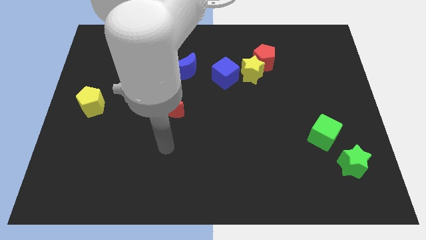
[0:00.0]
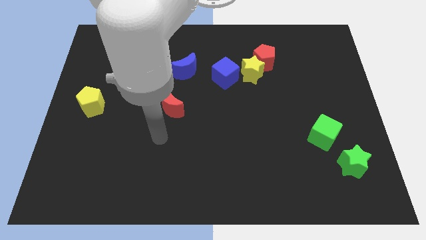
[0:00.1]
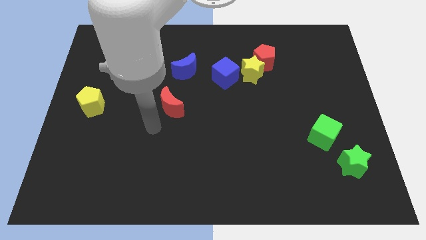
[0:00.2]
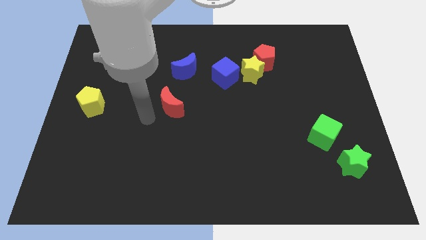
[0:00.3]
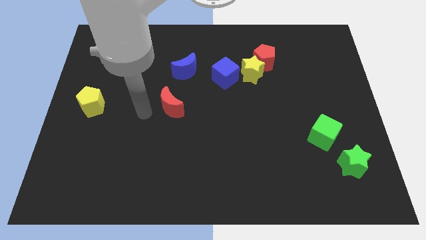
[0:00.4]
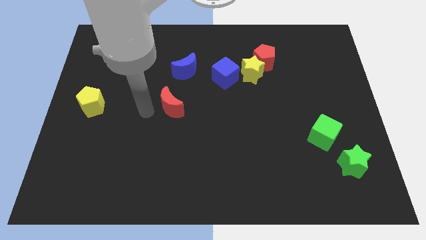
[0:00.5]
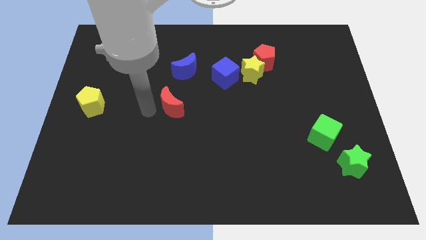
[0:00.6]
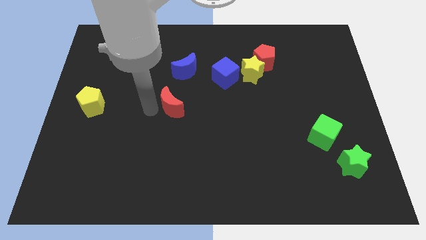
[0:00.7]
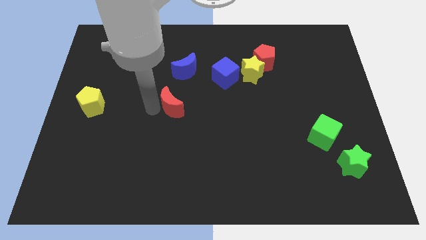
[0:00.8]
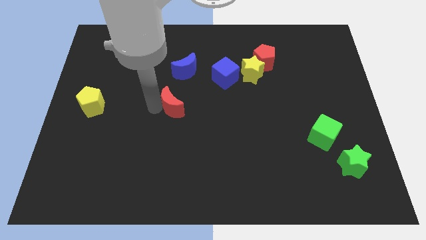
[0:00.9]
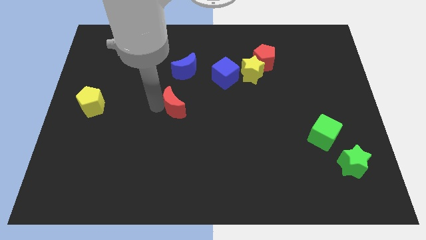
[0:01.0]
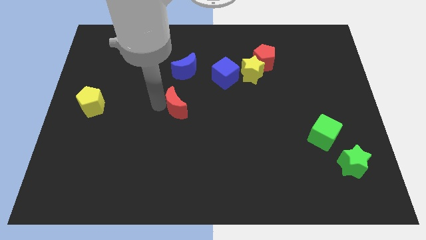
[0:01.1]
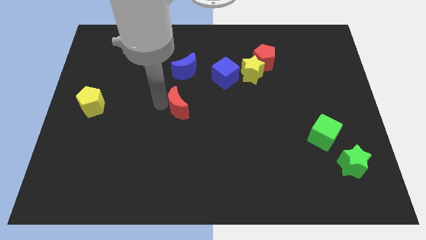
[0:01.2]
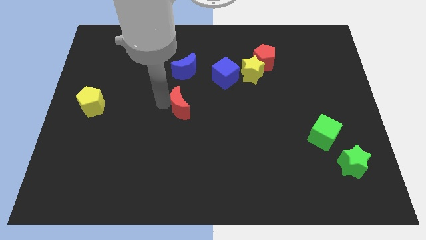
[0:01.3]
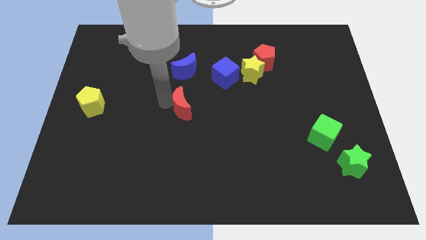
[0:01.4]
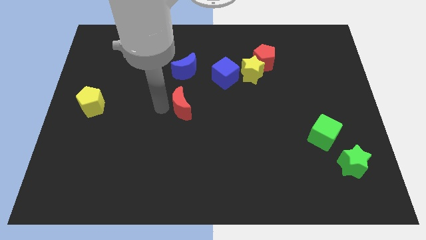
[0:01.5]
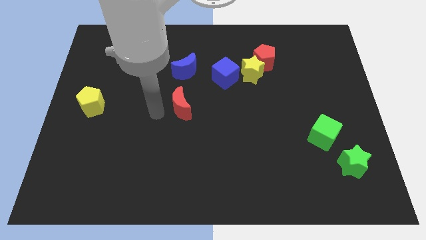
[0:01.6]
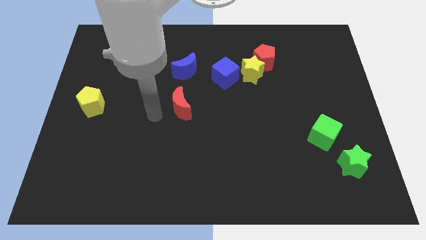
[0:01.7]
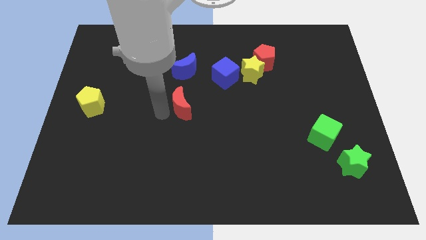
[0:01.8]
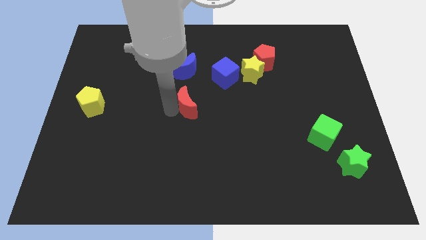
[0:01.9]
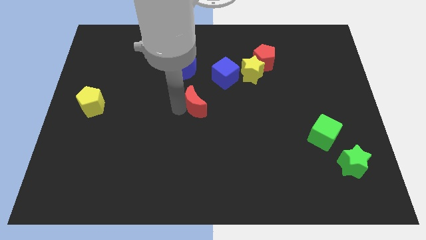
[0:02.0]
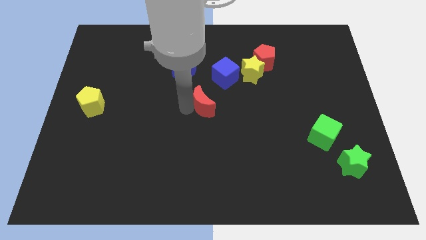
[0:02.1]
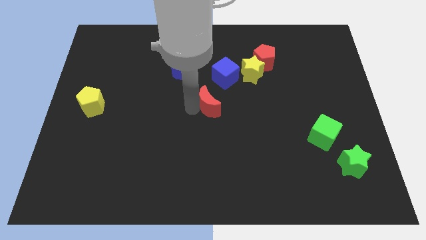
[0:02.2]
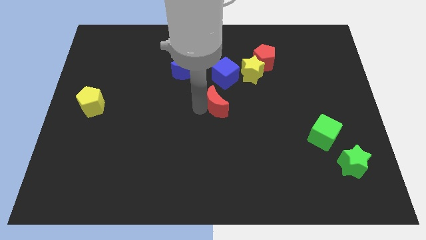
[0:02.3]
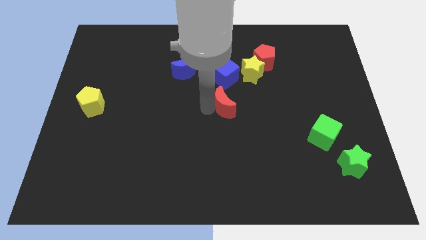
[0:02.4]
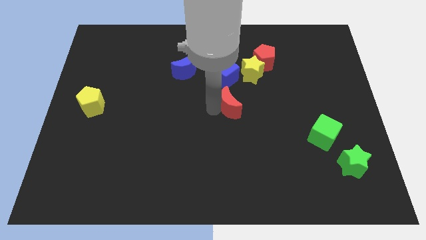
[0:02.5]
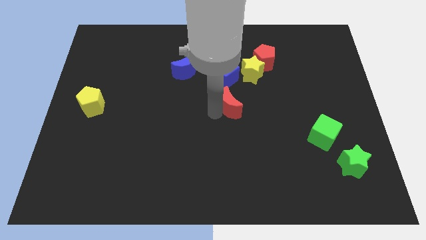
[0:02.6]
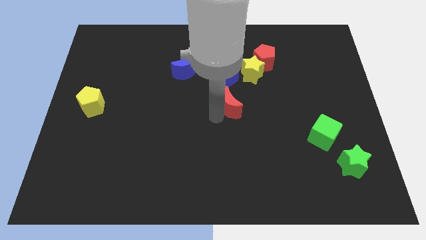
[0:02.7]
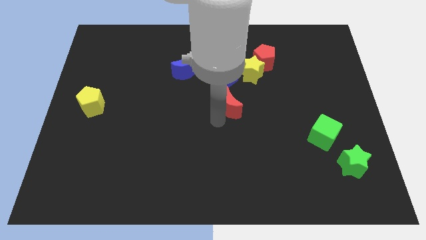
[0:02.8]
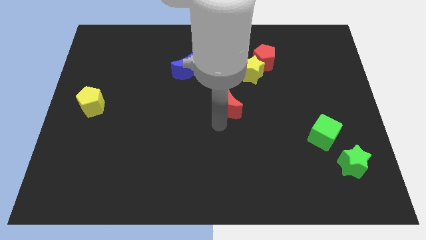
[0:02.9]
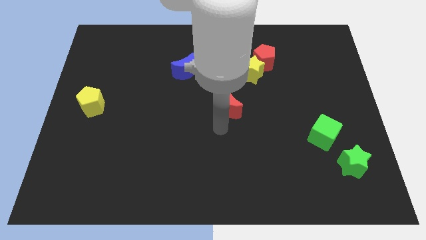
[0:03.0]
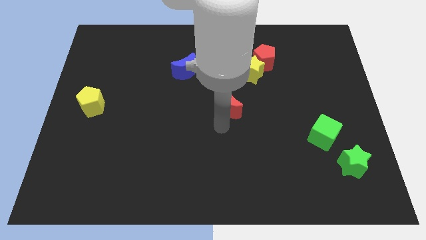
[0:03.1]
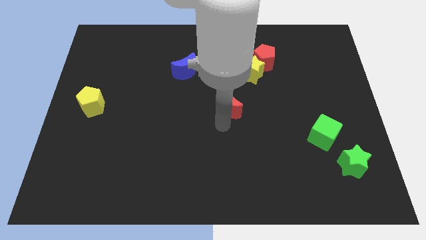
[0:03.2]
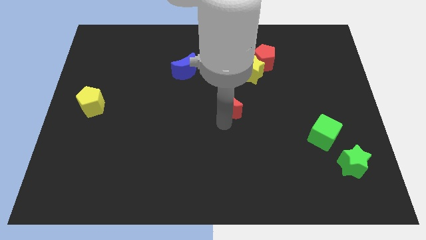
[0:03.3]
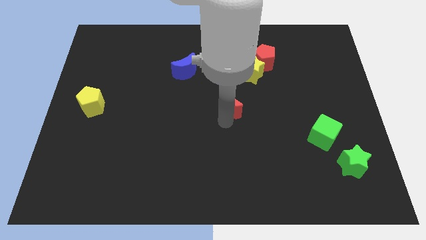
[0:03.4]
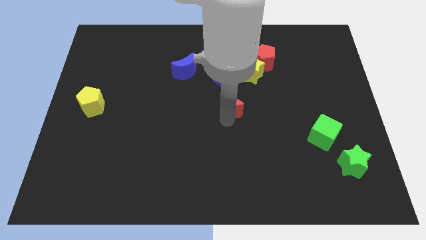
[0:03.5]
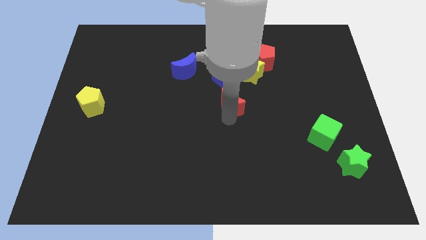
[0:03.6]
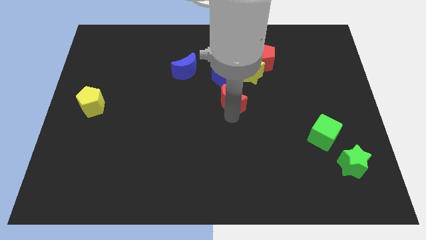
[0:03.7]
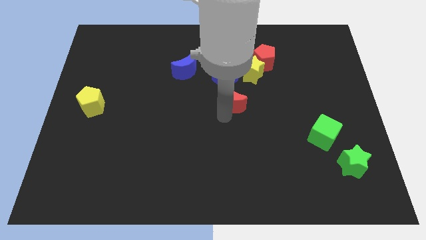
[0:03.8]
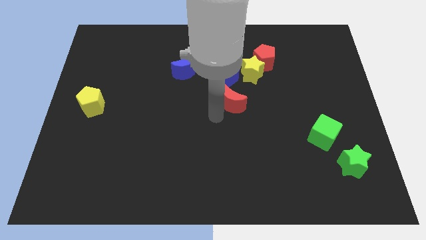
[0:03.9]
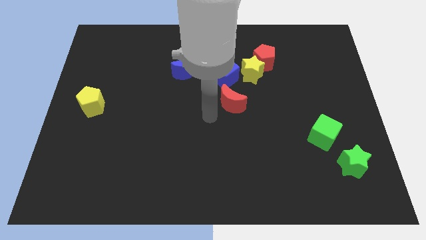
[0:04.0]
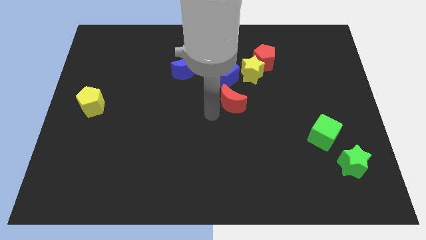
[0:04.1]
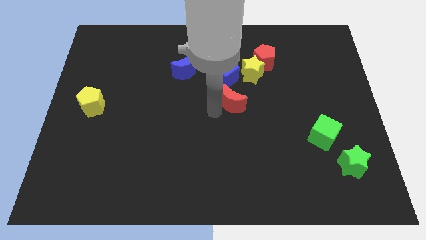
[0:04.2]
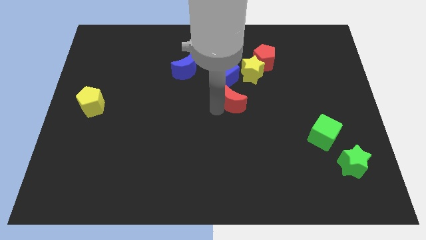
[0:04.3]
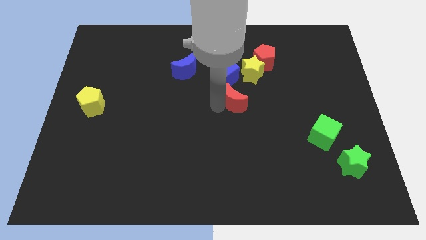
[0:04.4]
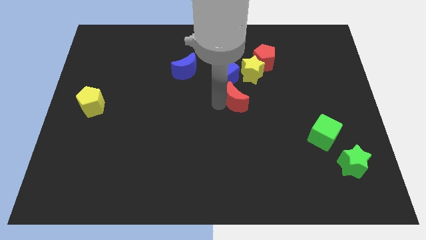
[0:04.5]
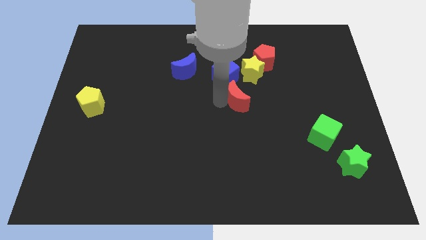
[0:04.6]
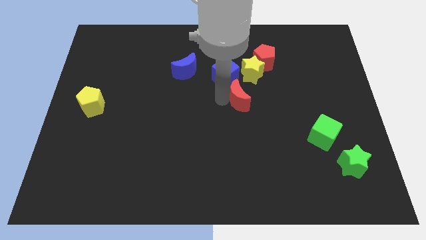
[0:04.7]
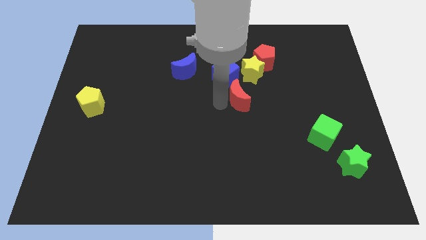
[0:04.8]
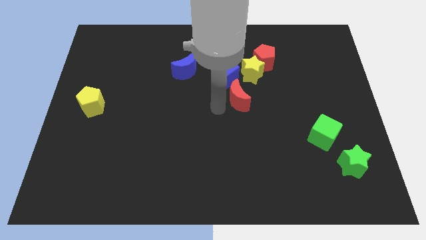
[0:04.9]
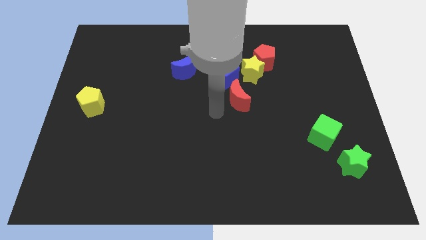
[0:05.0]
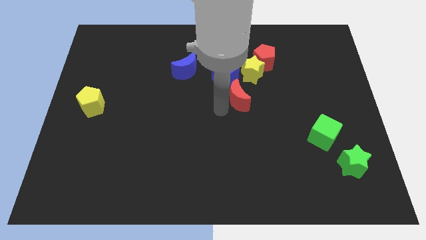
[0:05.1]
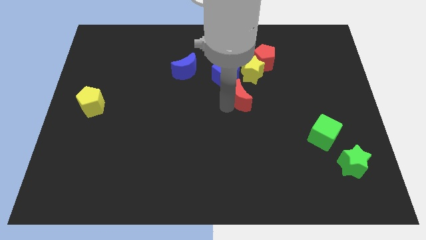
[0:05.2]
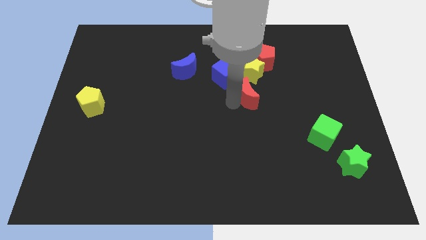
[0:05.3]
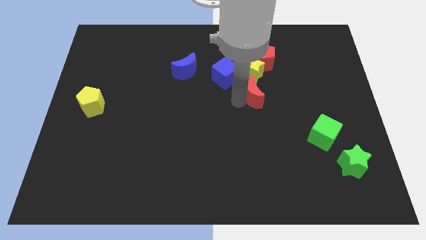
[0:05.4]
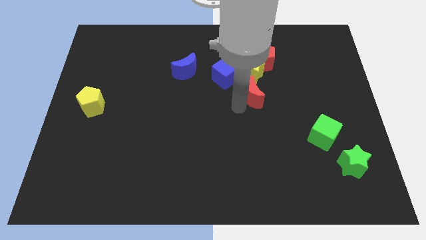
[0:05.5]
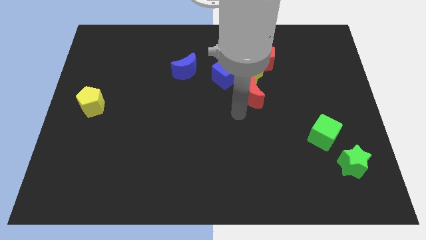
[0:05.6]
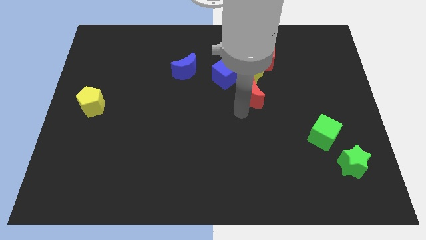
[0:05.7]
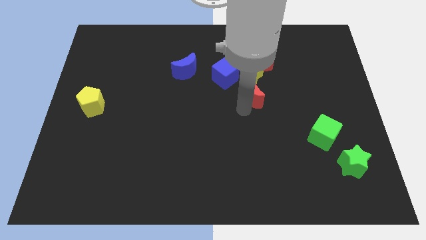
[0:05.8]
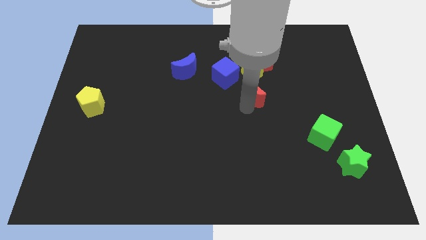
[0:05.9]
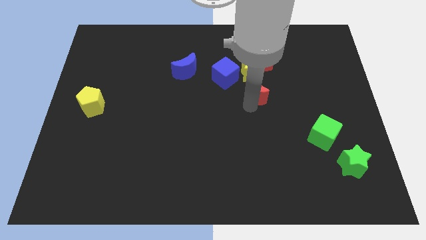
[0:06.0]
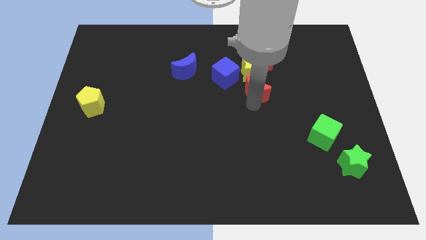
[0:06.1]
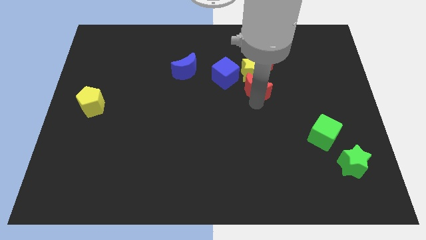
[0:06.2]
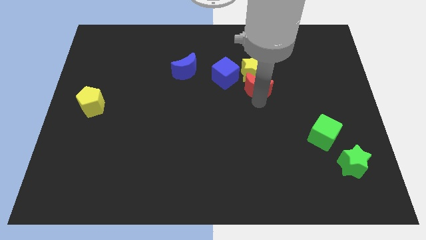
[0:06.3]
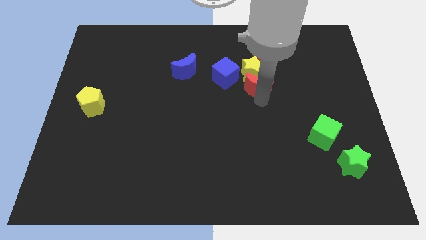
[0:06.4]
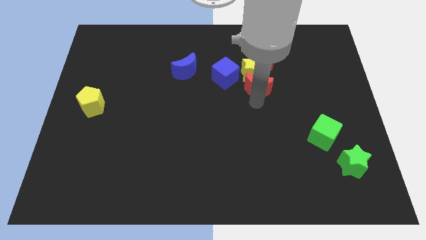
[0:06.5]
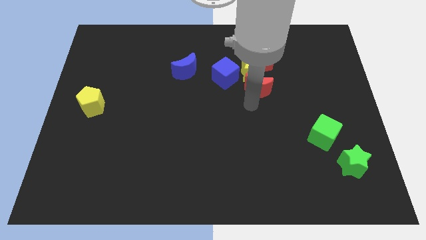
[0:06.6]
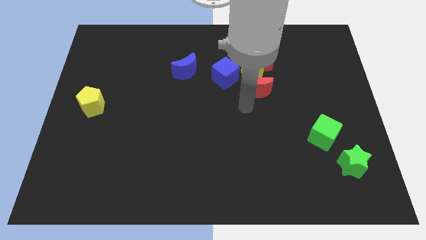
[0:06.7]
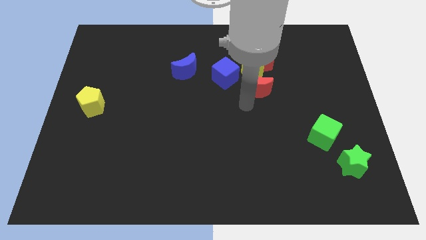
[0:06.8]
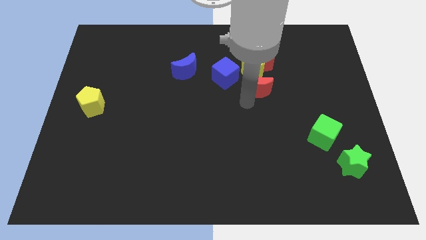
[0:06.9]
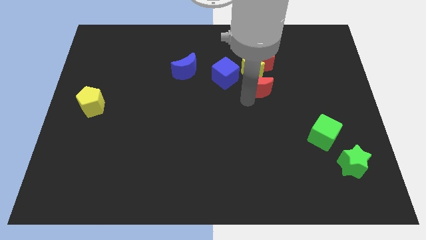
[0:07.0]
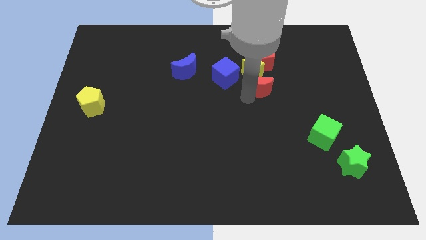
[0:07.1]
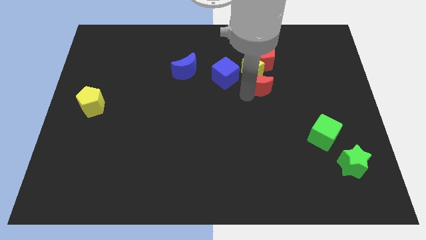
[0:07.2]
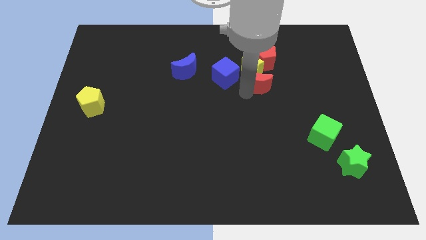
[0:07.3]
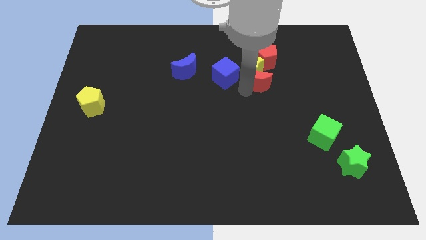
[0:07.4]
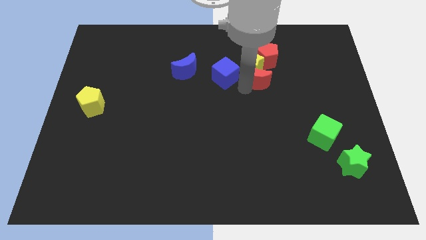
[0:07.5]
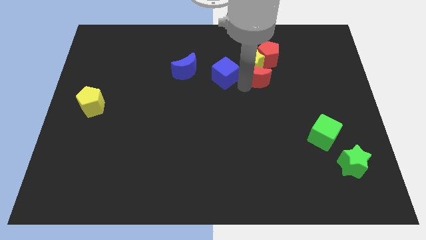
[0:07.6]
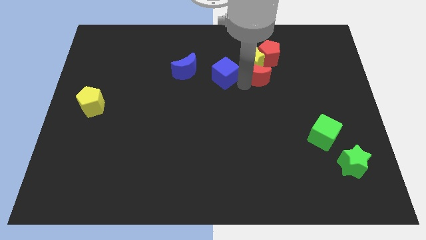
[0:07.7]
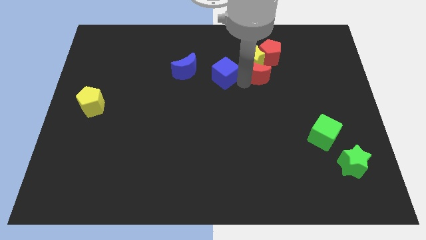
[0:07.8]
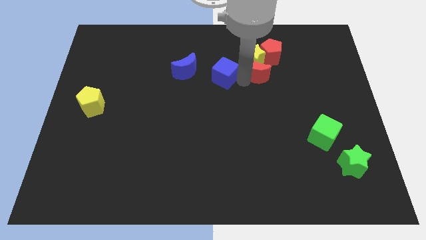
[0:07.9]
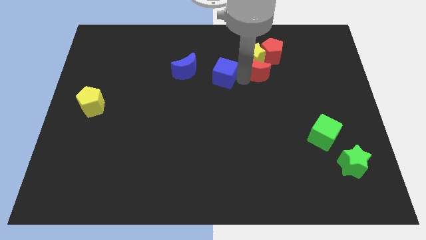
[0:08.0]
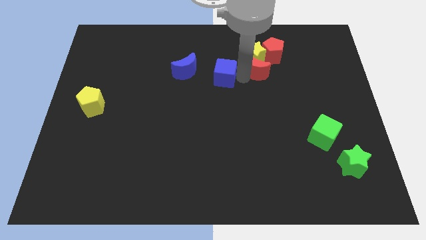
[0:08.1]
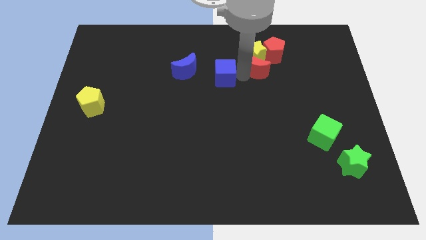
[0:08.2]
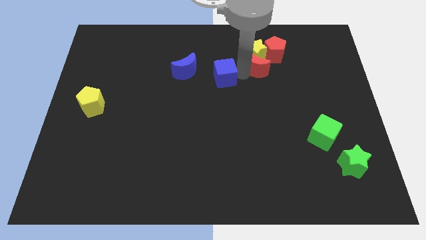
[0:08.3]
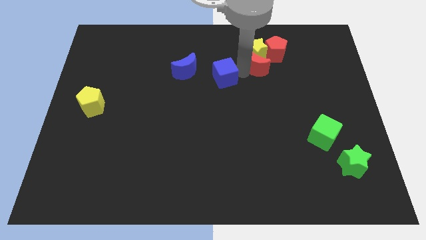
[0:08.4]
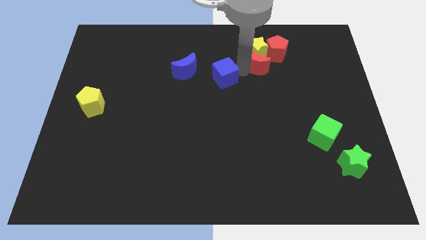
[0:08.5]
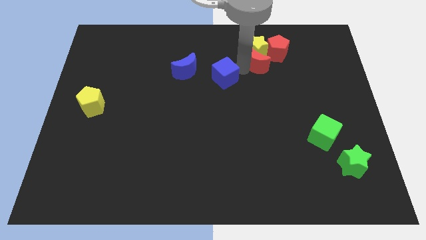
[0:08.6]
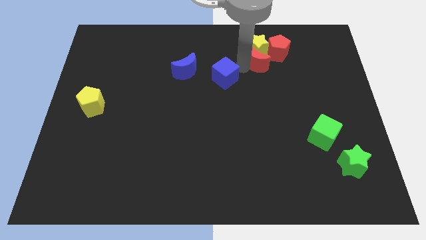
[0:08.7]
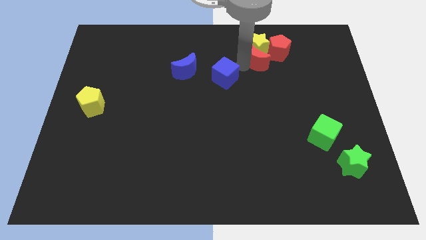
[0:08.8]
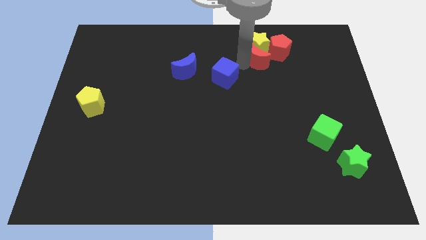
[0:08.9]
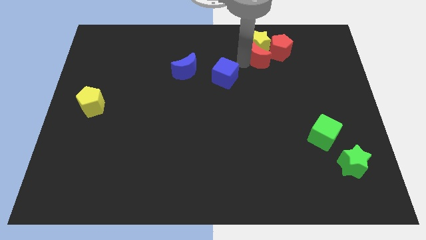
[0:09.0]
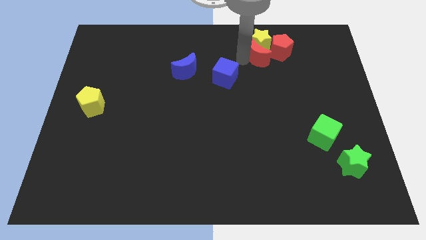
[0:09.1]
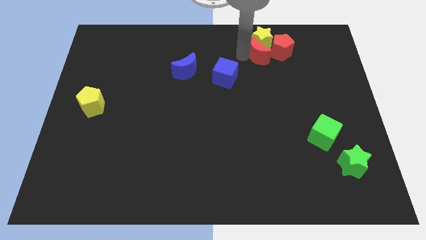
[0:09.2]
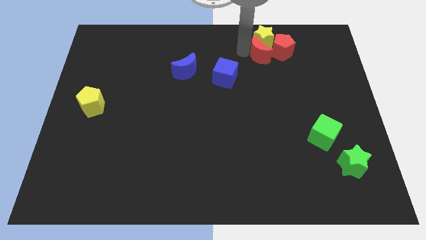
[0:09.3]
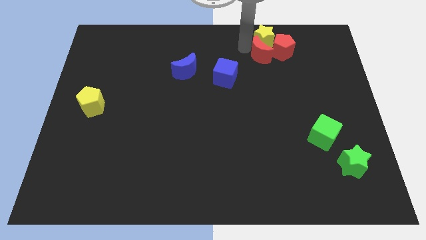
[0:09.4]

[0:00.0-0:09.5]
move the red moon to the red pentagon
